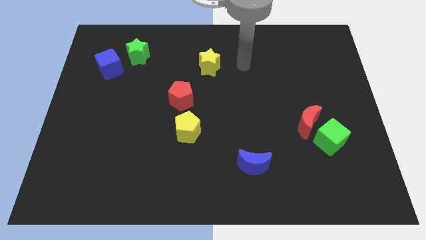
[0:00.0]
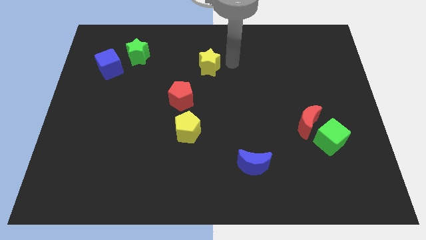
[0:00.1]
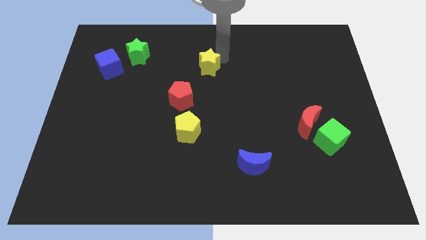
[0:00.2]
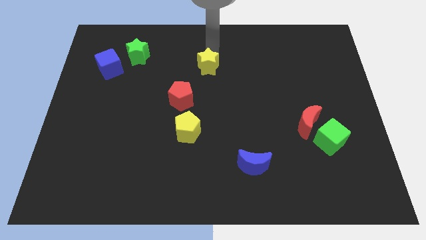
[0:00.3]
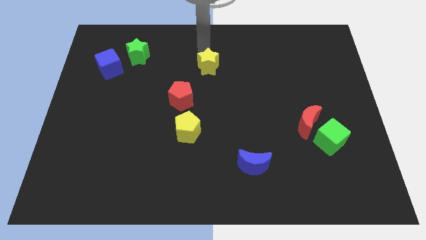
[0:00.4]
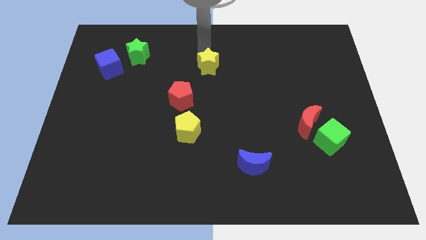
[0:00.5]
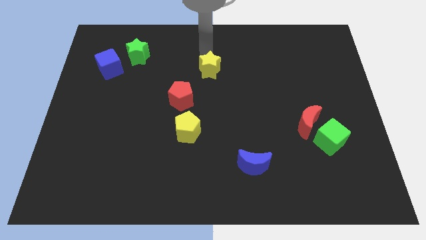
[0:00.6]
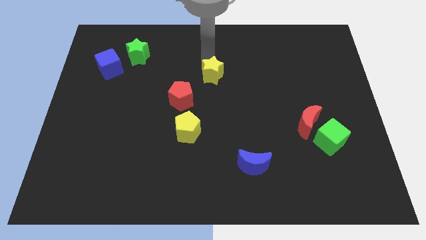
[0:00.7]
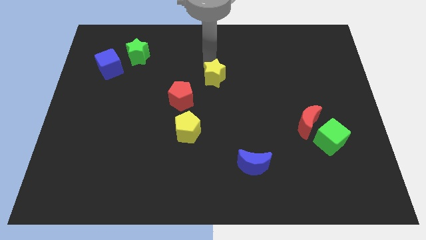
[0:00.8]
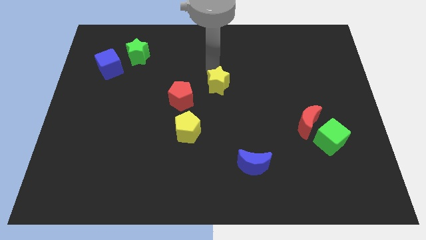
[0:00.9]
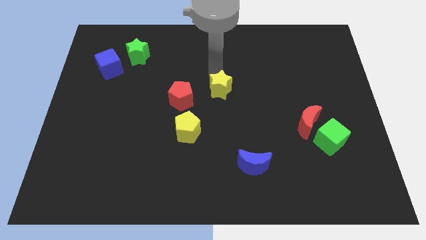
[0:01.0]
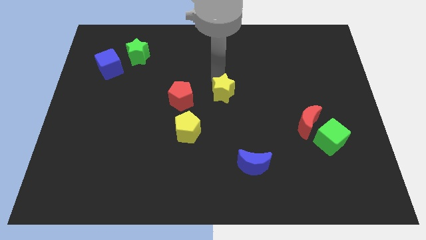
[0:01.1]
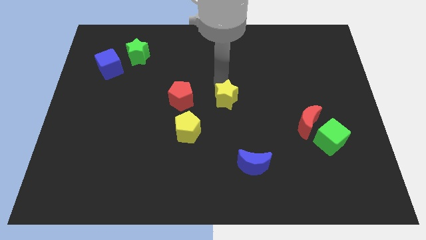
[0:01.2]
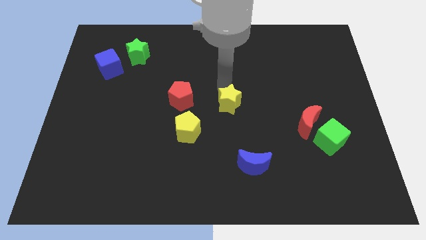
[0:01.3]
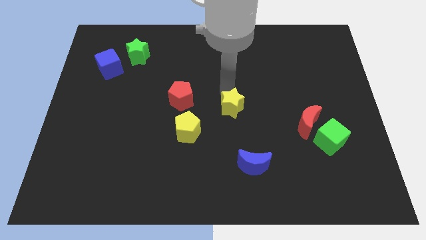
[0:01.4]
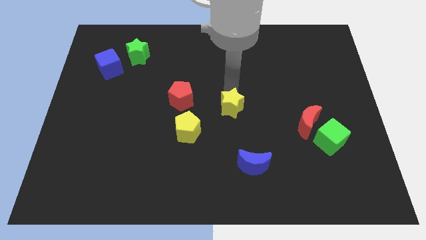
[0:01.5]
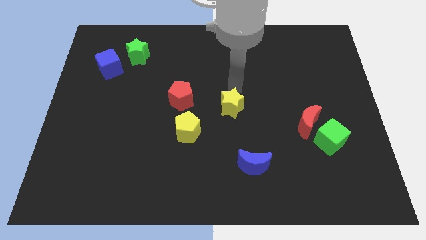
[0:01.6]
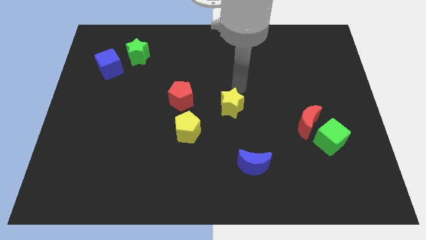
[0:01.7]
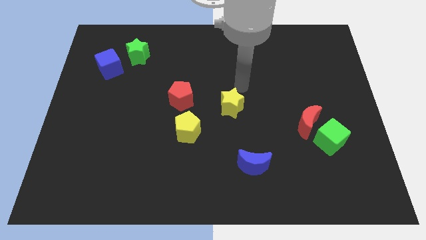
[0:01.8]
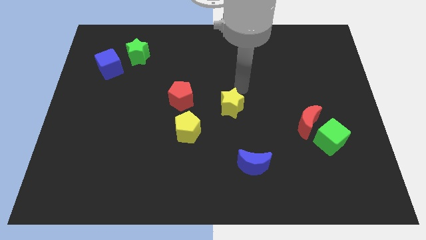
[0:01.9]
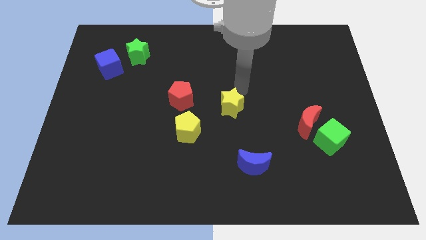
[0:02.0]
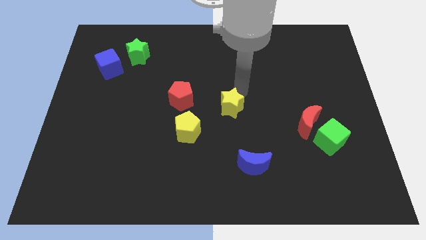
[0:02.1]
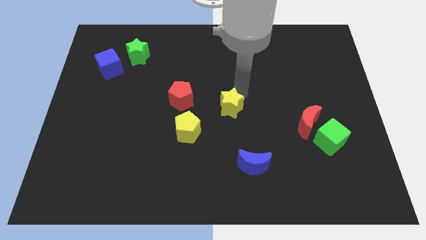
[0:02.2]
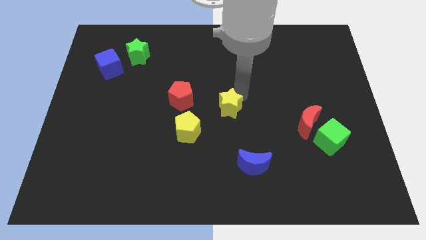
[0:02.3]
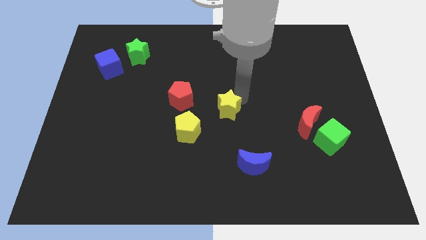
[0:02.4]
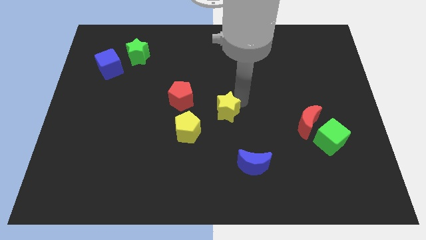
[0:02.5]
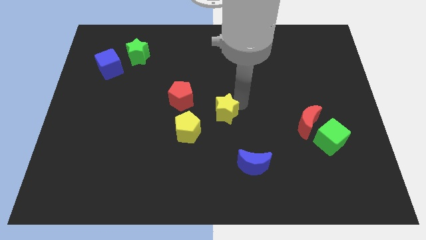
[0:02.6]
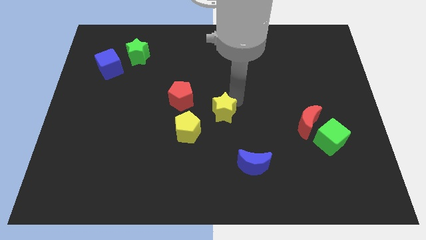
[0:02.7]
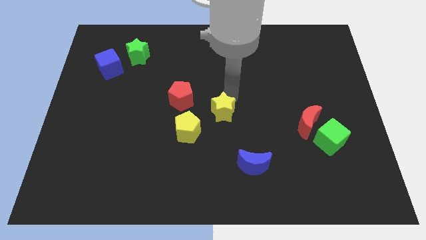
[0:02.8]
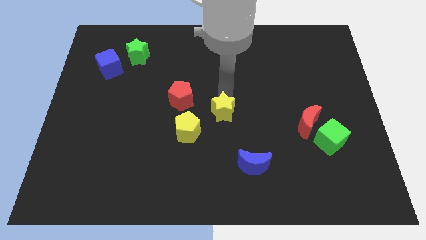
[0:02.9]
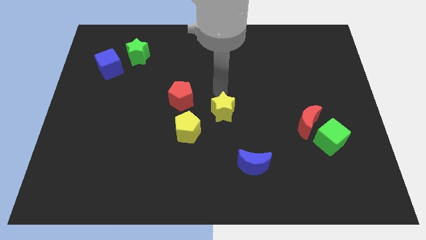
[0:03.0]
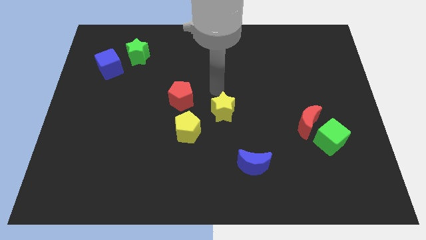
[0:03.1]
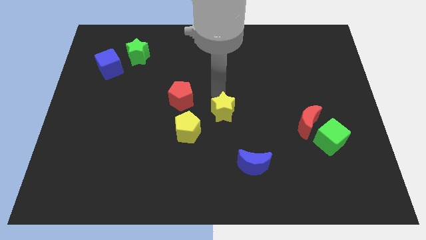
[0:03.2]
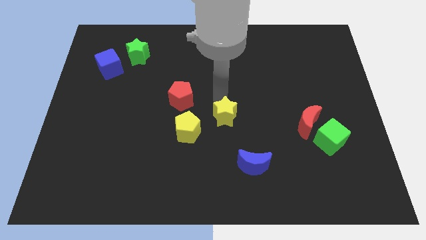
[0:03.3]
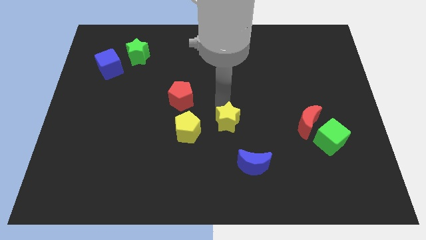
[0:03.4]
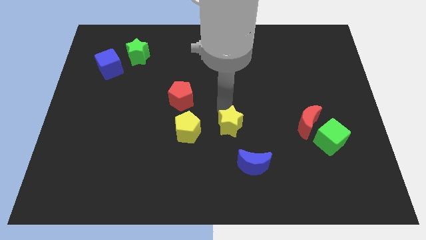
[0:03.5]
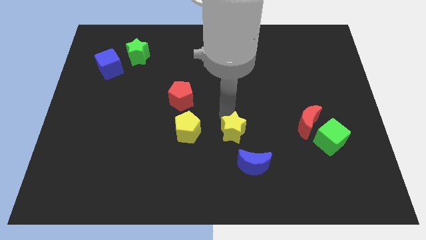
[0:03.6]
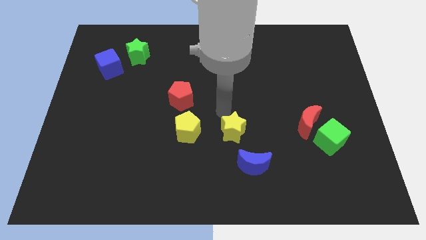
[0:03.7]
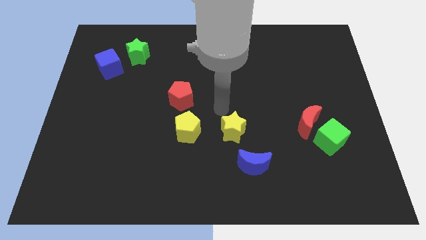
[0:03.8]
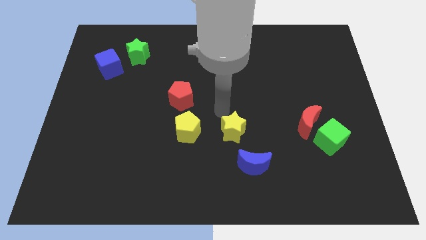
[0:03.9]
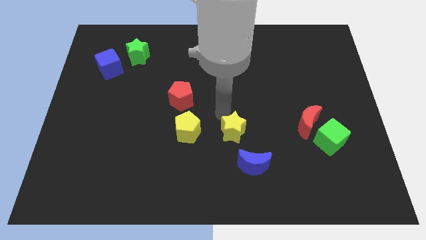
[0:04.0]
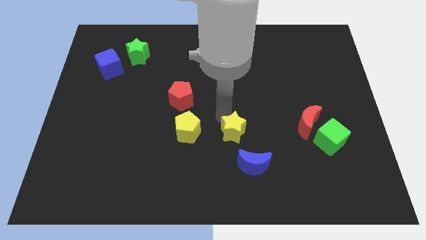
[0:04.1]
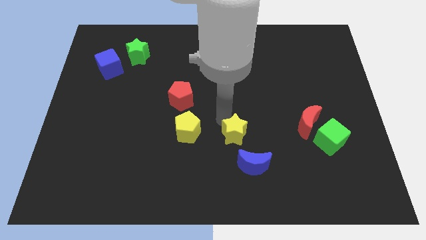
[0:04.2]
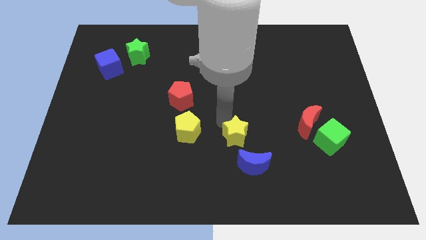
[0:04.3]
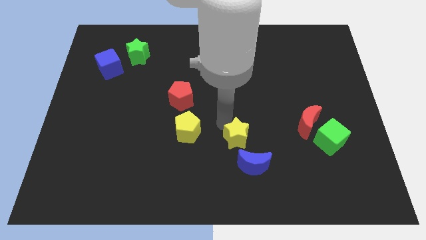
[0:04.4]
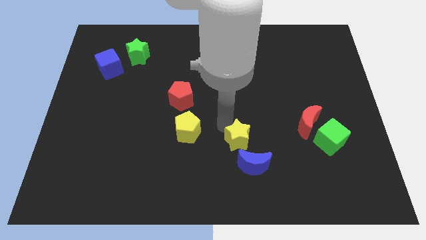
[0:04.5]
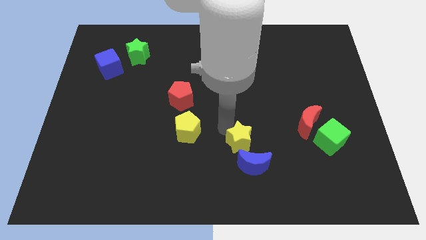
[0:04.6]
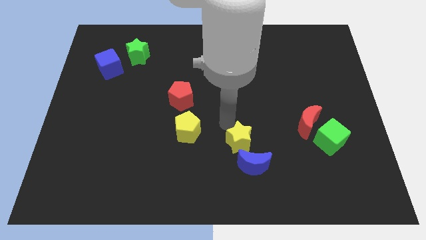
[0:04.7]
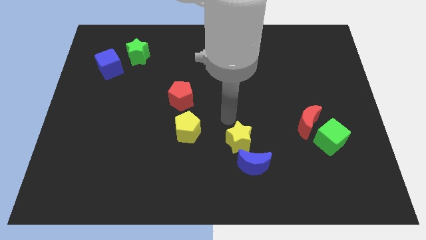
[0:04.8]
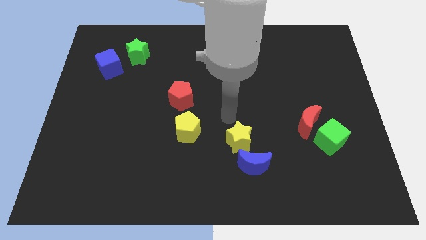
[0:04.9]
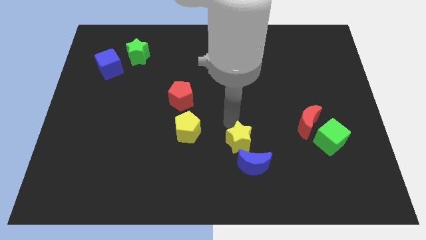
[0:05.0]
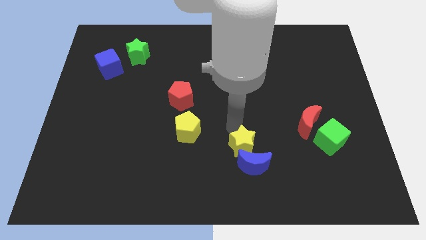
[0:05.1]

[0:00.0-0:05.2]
push the yellow star to the blue moon

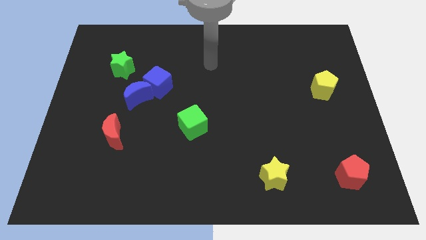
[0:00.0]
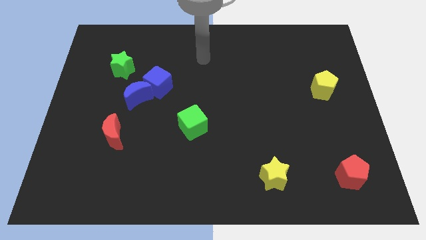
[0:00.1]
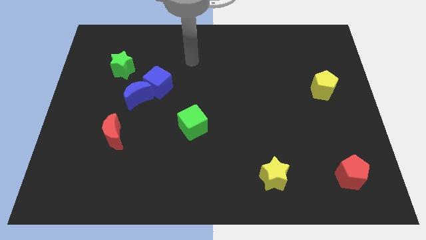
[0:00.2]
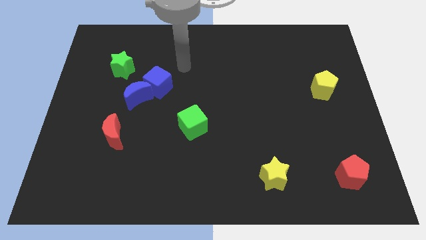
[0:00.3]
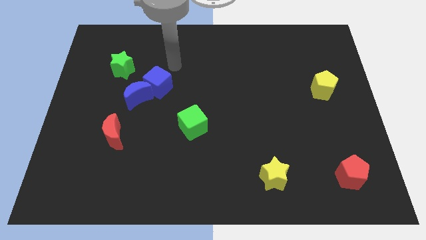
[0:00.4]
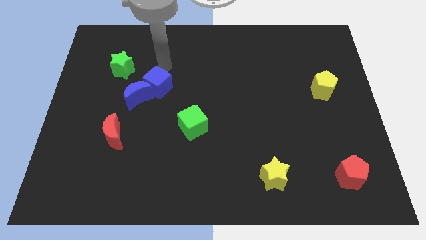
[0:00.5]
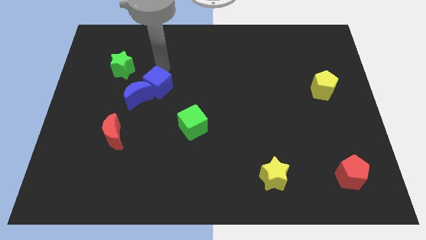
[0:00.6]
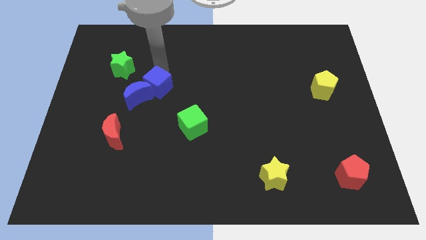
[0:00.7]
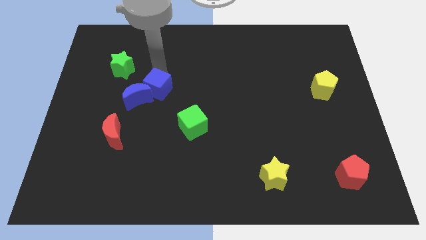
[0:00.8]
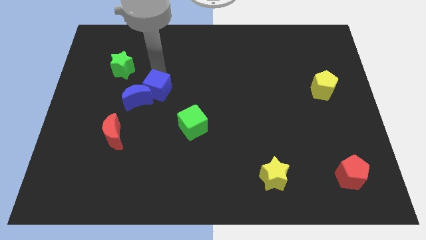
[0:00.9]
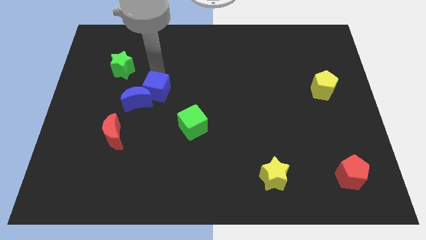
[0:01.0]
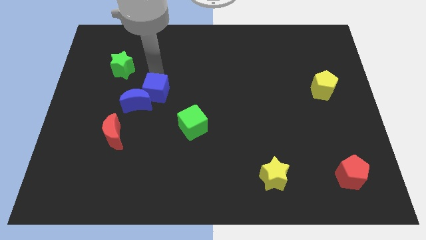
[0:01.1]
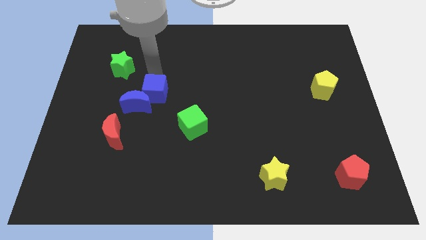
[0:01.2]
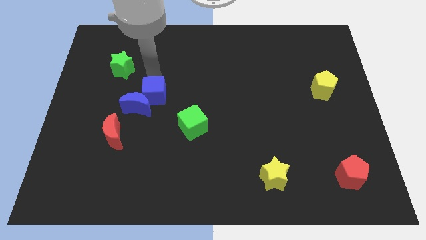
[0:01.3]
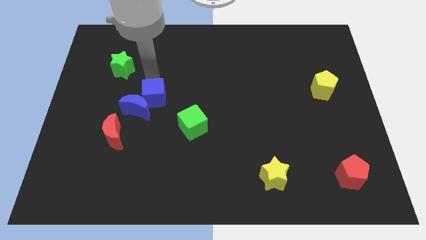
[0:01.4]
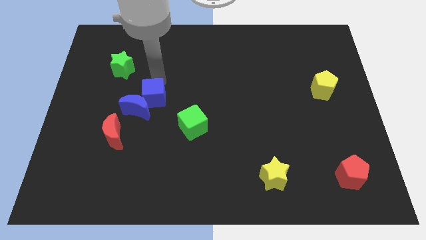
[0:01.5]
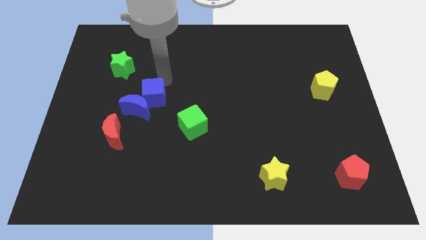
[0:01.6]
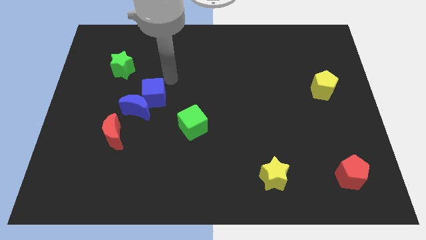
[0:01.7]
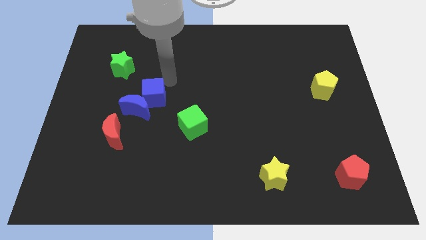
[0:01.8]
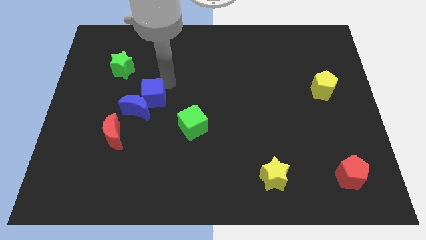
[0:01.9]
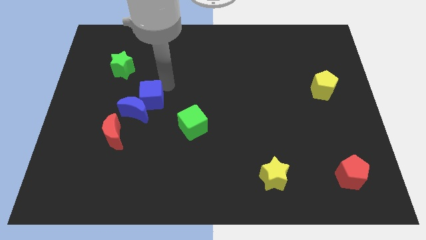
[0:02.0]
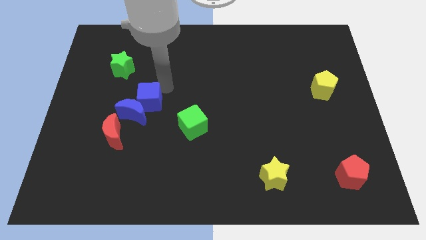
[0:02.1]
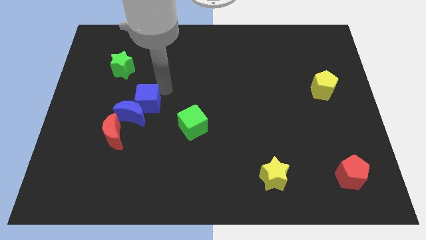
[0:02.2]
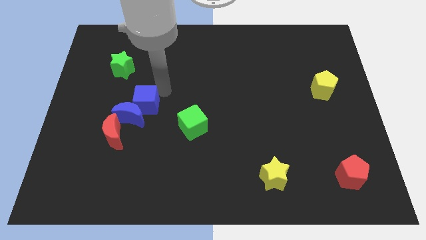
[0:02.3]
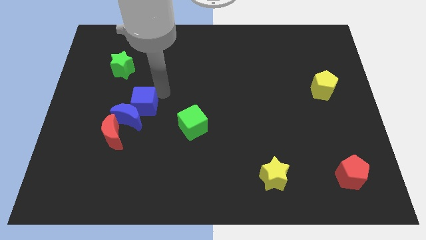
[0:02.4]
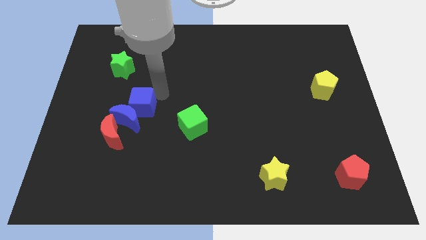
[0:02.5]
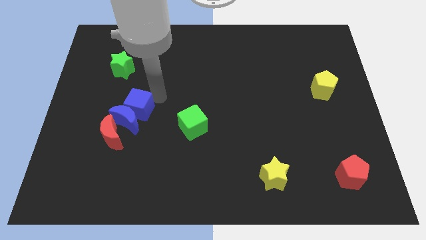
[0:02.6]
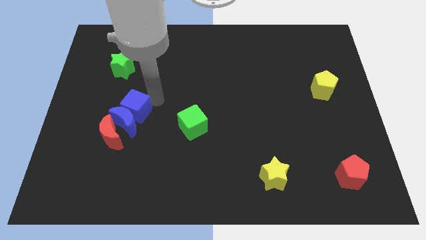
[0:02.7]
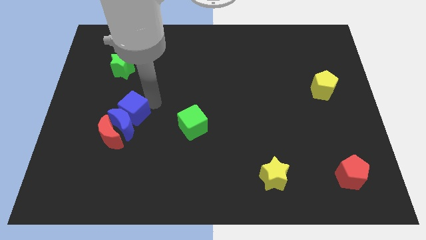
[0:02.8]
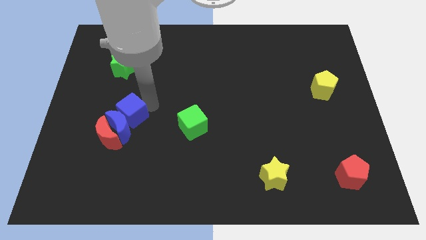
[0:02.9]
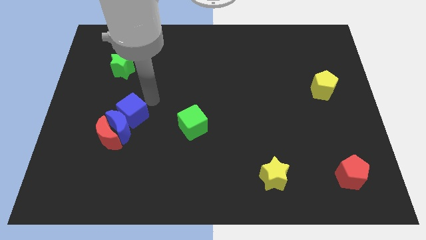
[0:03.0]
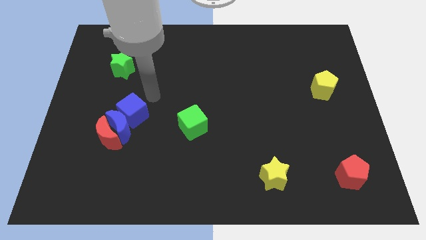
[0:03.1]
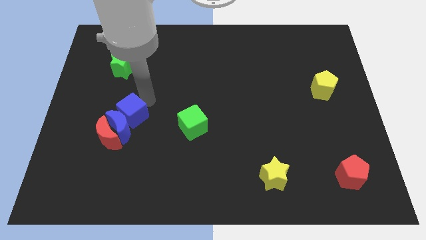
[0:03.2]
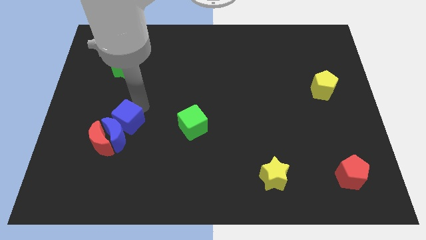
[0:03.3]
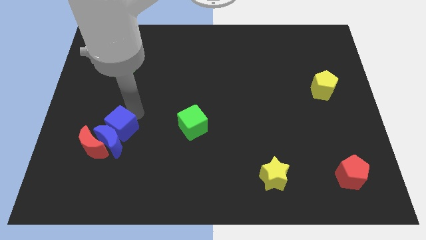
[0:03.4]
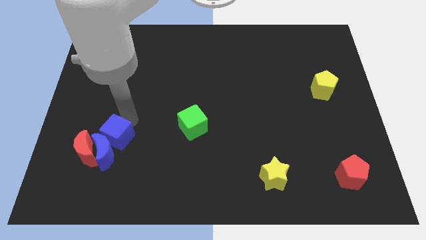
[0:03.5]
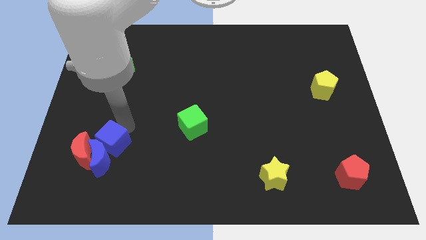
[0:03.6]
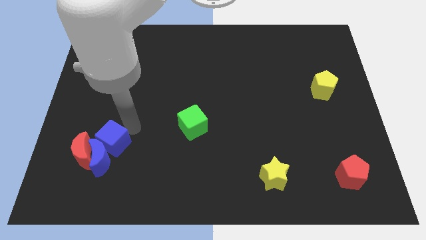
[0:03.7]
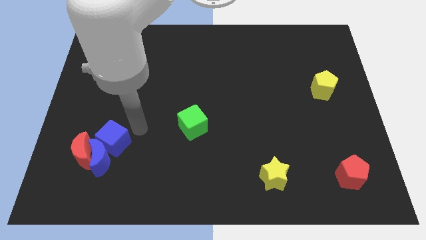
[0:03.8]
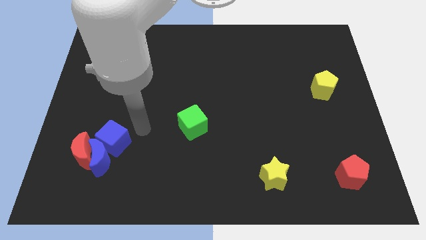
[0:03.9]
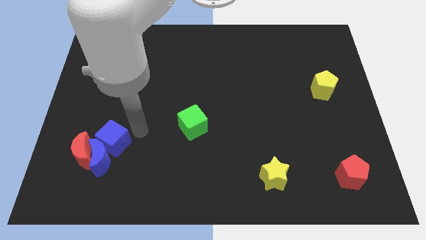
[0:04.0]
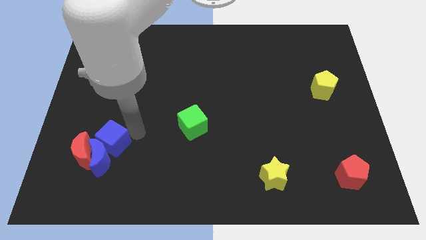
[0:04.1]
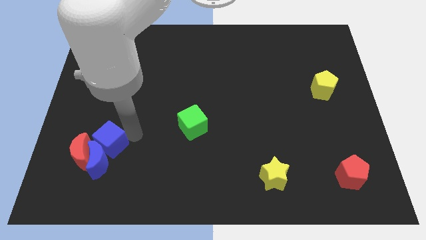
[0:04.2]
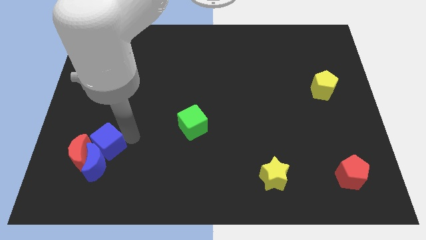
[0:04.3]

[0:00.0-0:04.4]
move the blue cube towards the red moon
